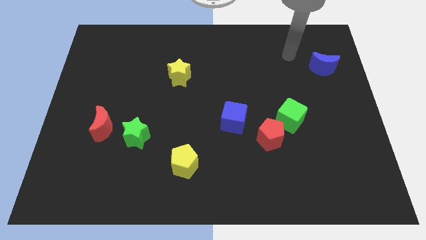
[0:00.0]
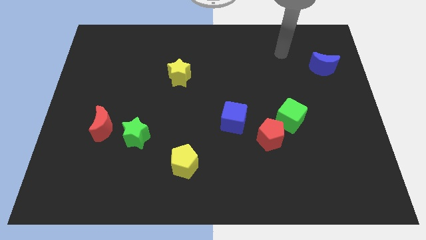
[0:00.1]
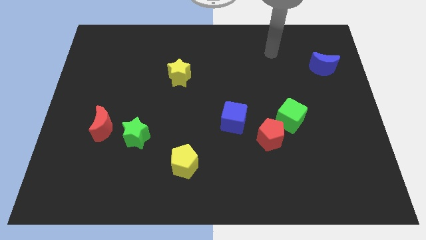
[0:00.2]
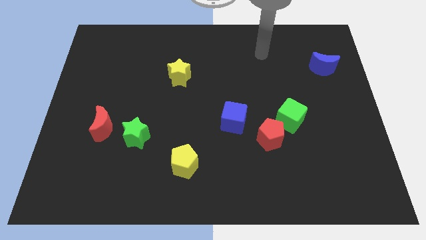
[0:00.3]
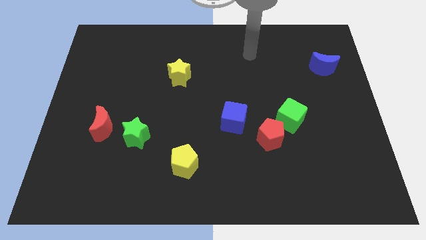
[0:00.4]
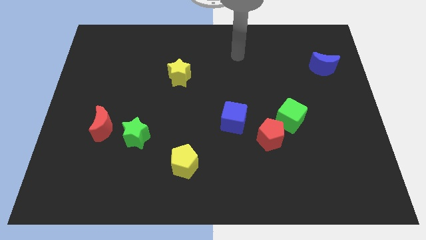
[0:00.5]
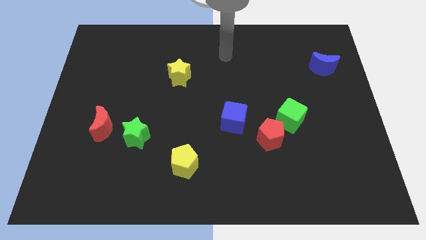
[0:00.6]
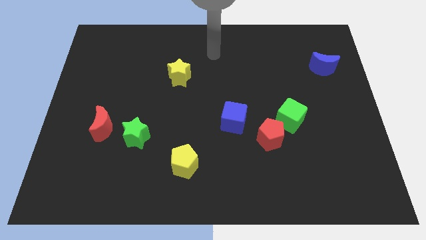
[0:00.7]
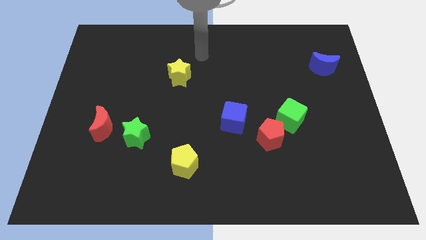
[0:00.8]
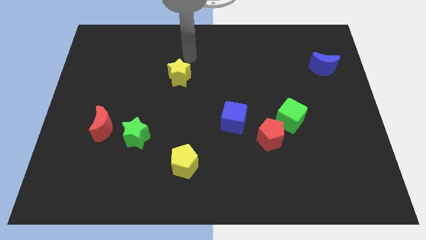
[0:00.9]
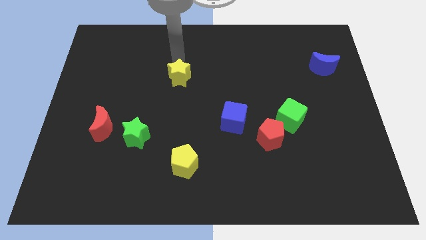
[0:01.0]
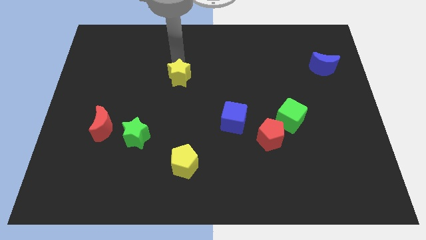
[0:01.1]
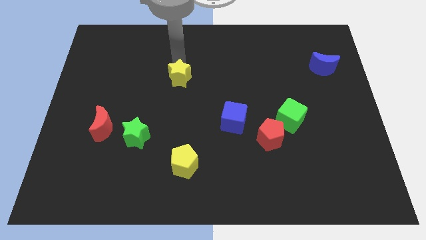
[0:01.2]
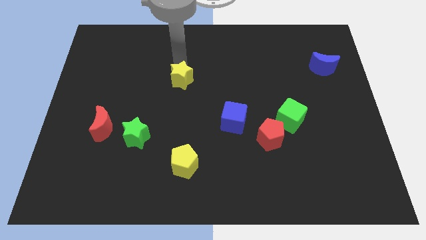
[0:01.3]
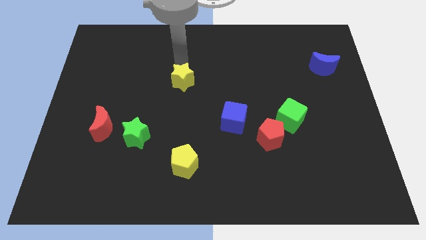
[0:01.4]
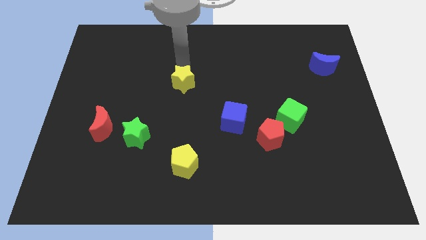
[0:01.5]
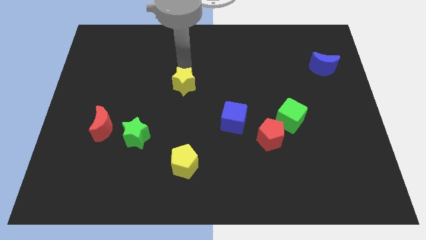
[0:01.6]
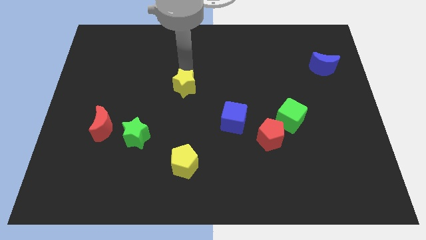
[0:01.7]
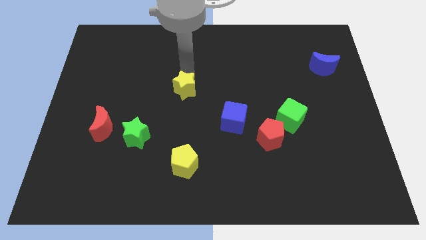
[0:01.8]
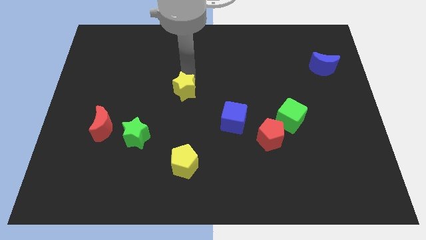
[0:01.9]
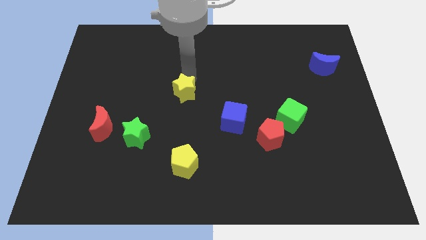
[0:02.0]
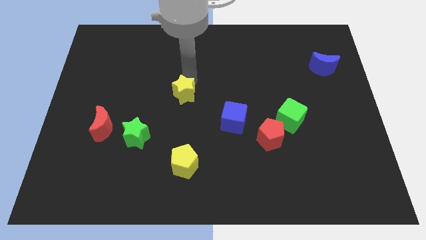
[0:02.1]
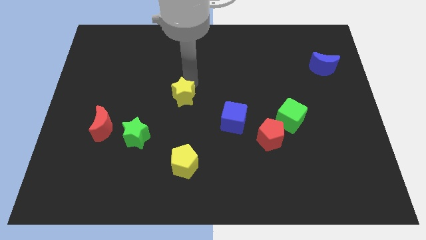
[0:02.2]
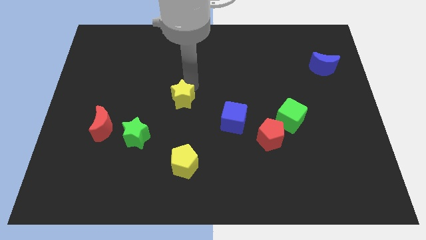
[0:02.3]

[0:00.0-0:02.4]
push the yellow star a bit downwards

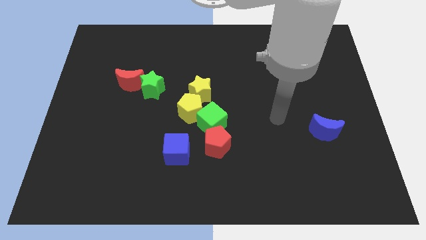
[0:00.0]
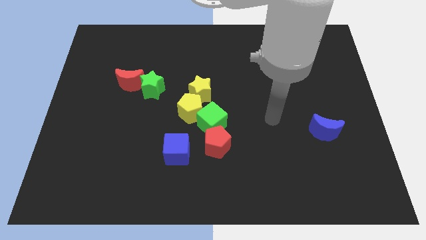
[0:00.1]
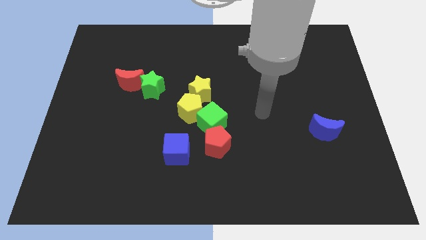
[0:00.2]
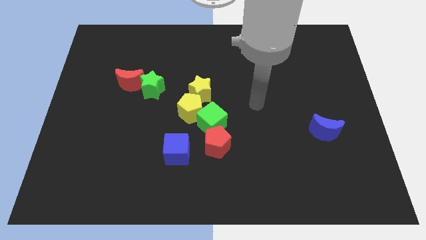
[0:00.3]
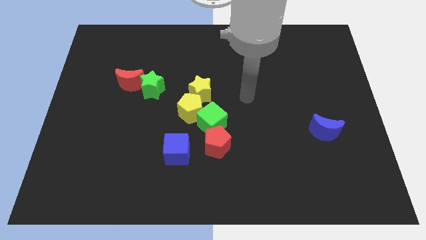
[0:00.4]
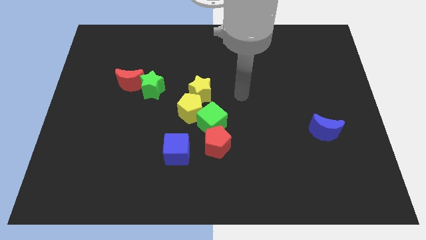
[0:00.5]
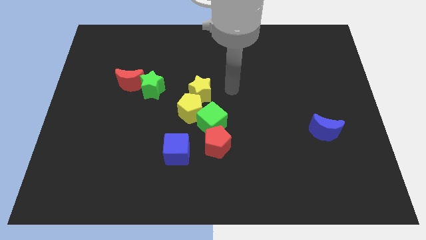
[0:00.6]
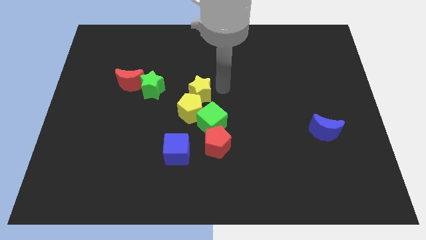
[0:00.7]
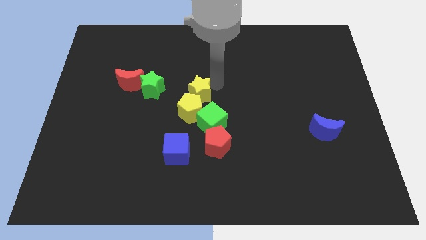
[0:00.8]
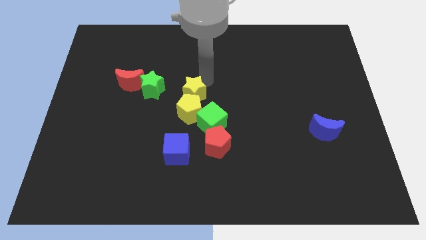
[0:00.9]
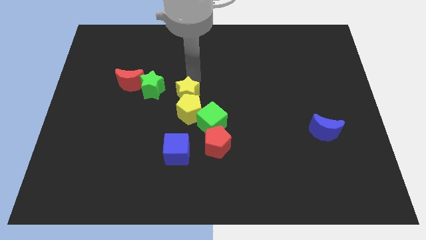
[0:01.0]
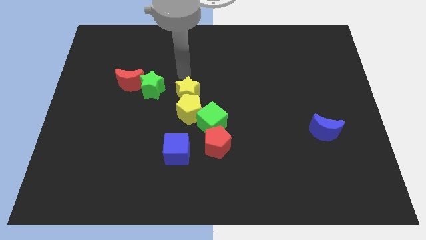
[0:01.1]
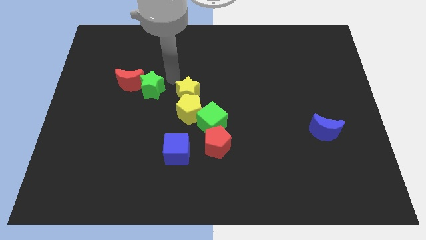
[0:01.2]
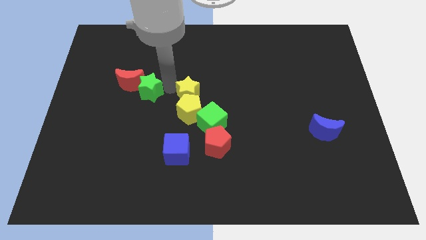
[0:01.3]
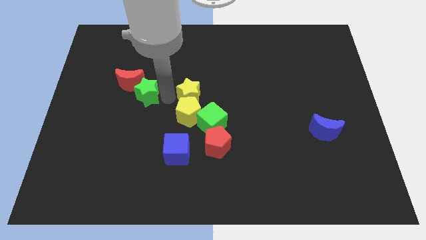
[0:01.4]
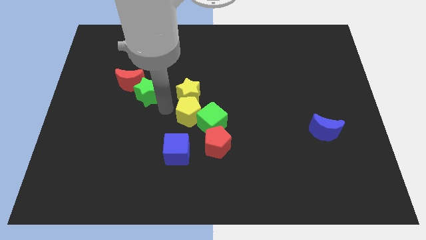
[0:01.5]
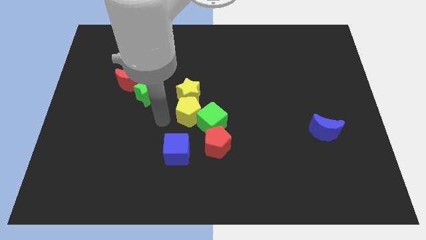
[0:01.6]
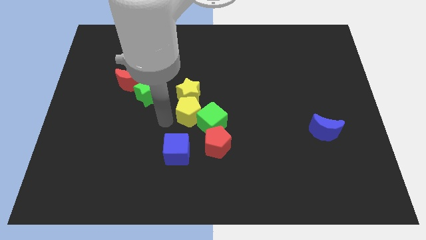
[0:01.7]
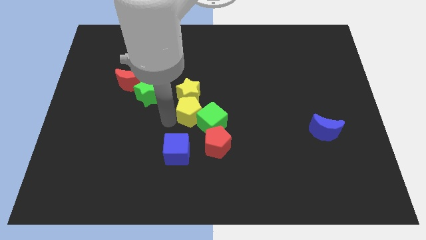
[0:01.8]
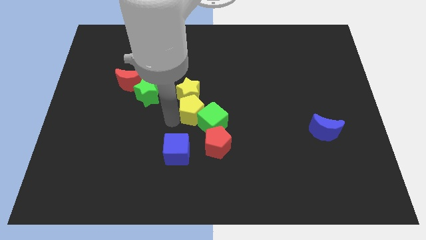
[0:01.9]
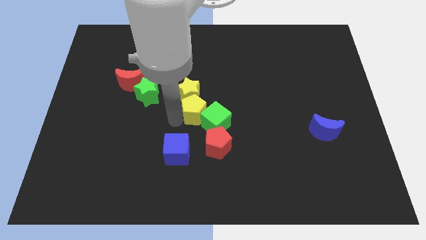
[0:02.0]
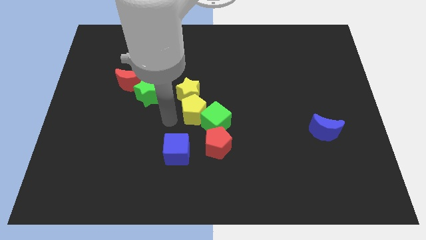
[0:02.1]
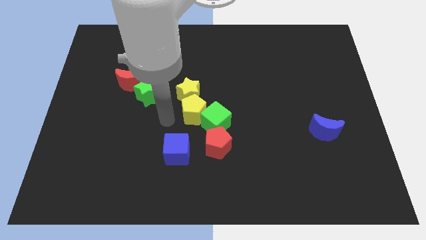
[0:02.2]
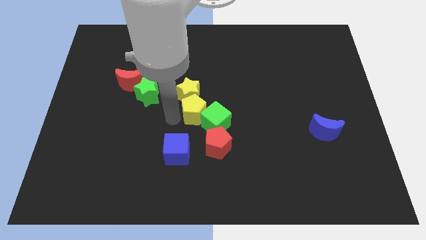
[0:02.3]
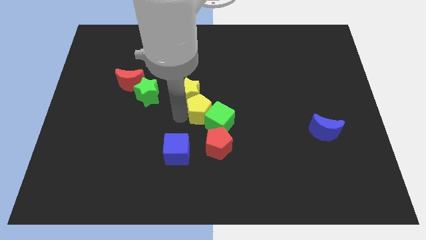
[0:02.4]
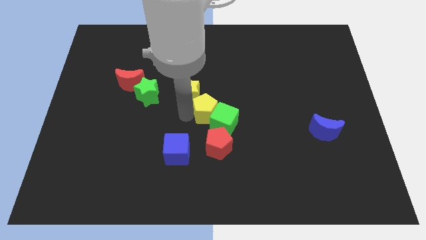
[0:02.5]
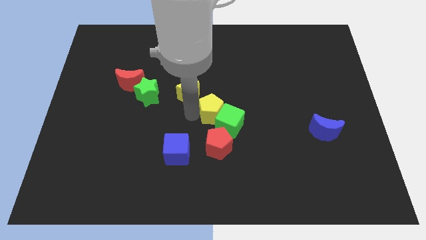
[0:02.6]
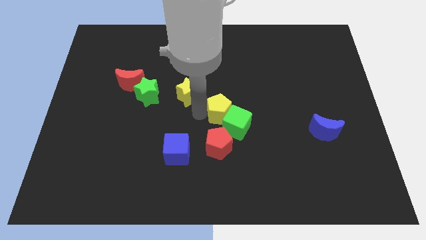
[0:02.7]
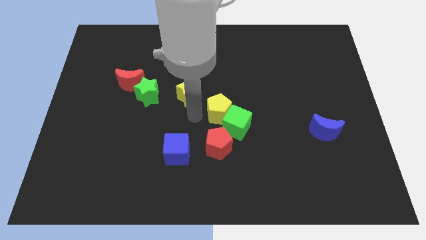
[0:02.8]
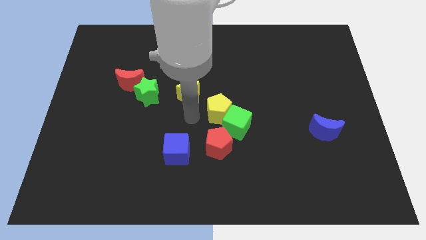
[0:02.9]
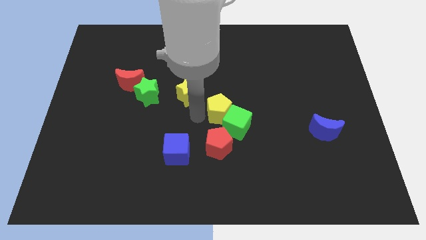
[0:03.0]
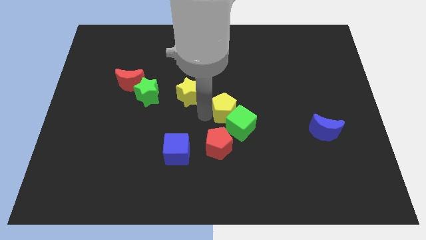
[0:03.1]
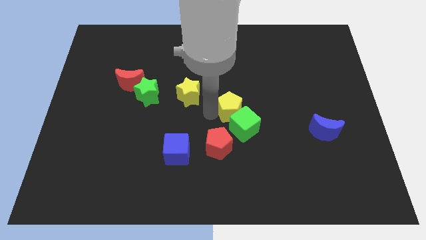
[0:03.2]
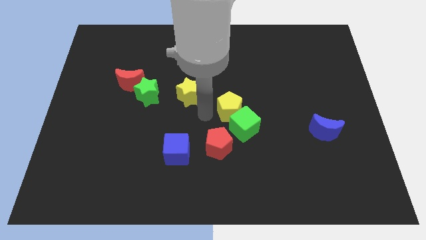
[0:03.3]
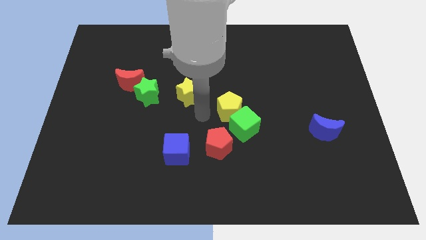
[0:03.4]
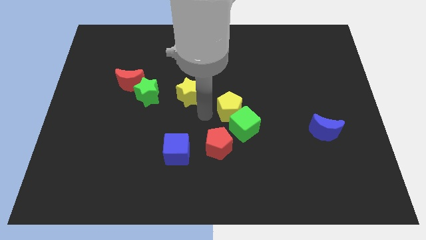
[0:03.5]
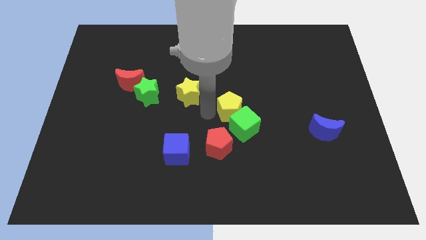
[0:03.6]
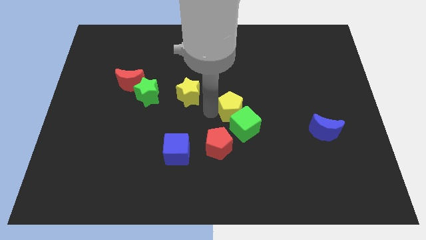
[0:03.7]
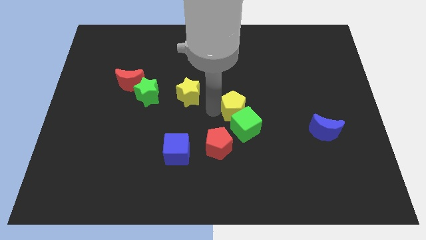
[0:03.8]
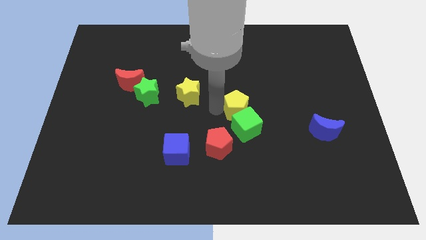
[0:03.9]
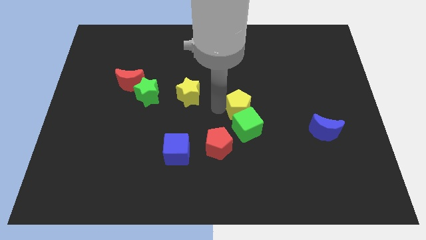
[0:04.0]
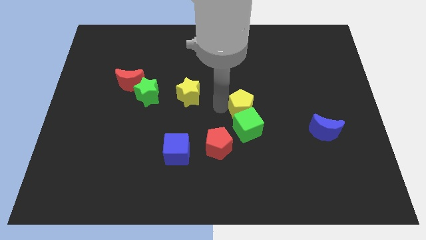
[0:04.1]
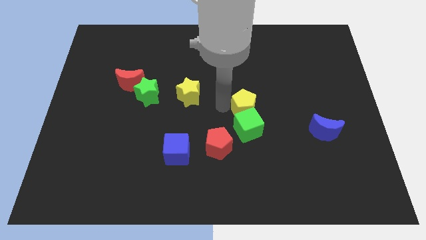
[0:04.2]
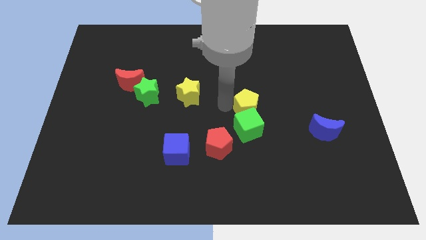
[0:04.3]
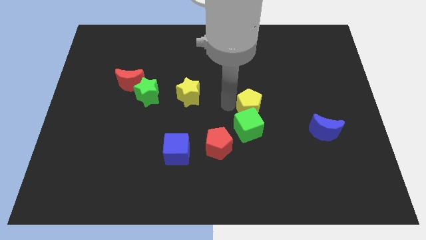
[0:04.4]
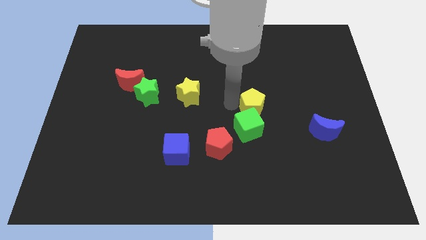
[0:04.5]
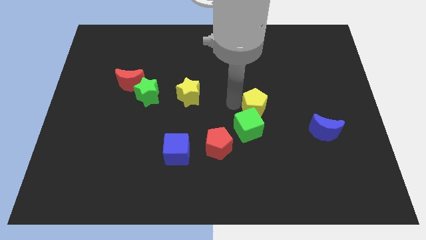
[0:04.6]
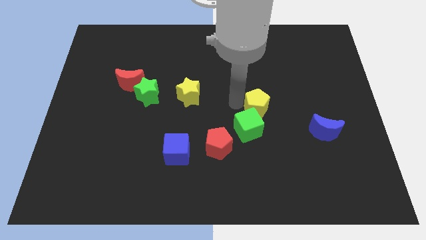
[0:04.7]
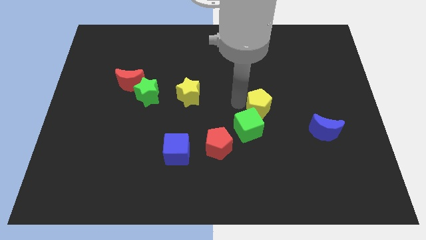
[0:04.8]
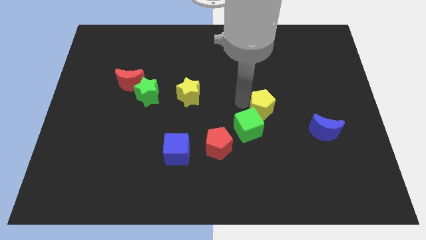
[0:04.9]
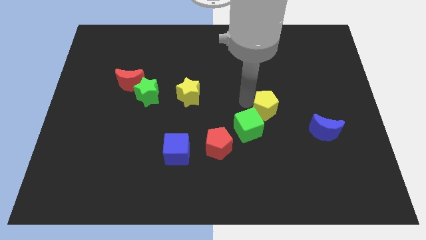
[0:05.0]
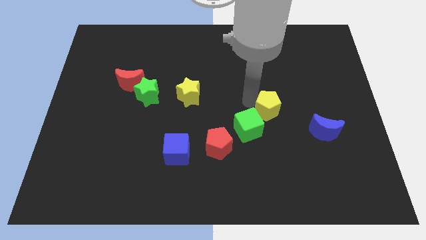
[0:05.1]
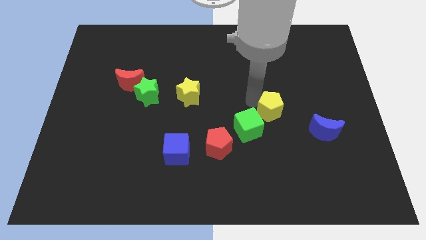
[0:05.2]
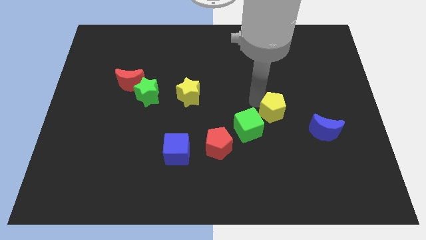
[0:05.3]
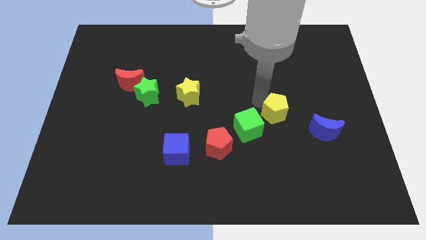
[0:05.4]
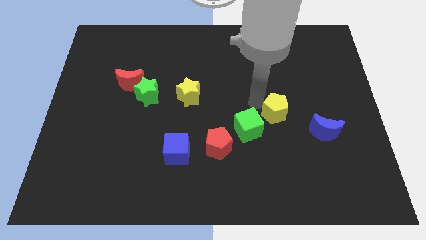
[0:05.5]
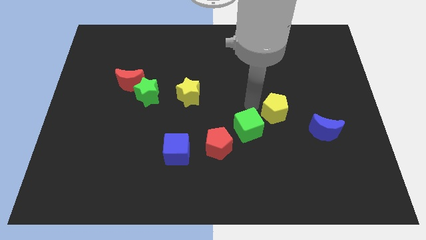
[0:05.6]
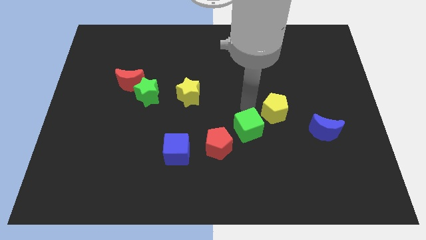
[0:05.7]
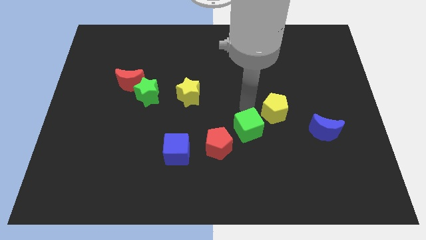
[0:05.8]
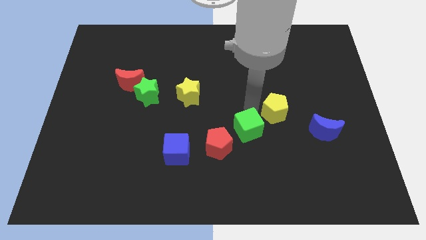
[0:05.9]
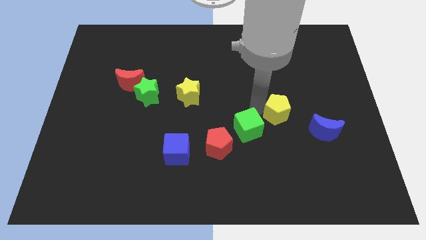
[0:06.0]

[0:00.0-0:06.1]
push the yellow pentagon right
